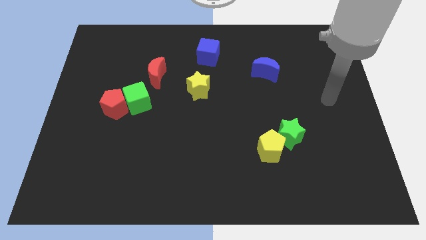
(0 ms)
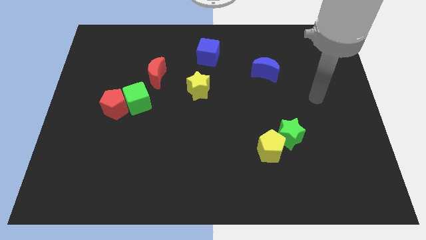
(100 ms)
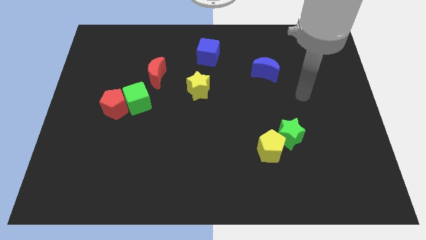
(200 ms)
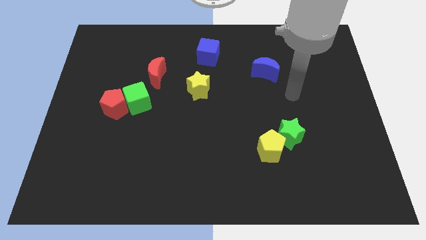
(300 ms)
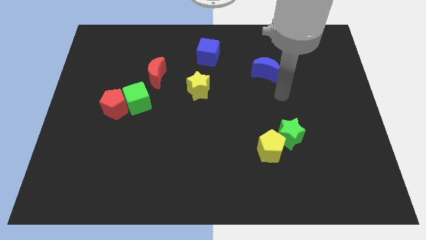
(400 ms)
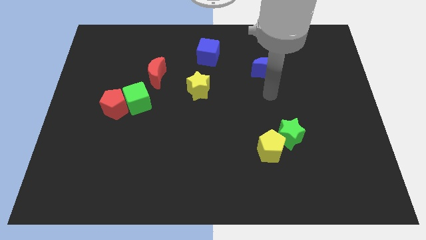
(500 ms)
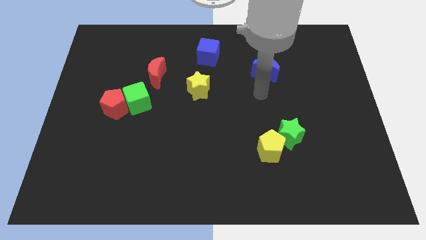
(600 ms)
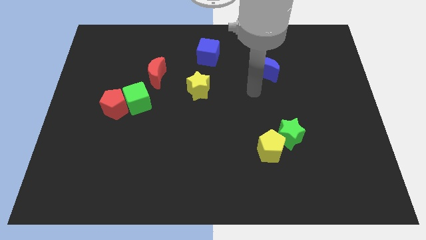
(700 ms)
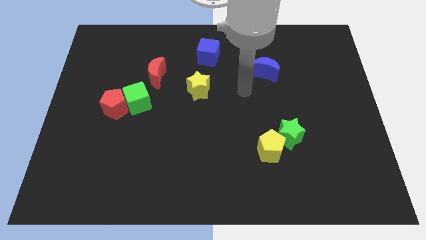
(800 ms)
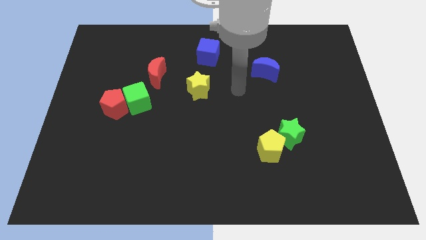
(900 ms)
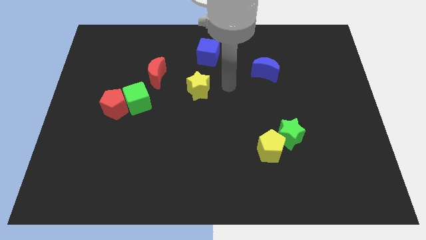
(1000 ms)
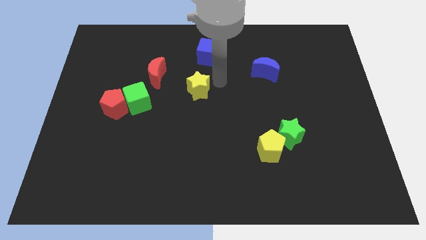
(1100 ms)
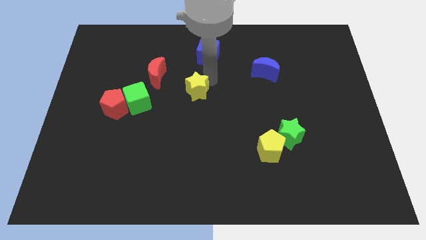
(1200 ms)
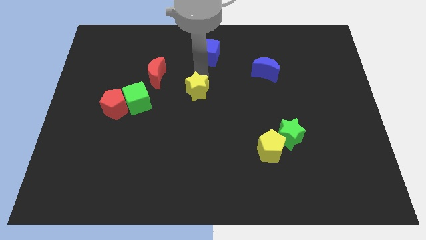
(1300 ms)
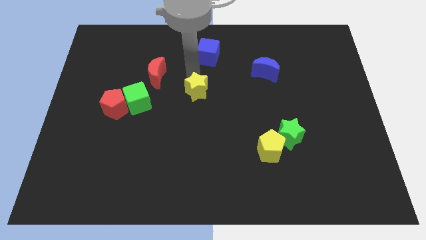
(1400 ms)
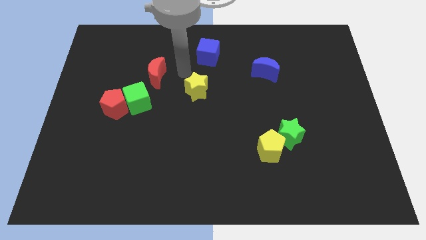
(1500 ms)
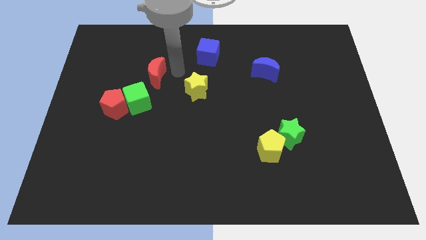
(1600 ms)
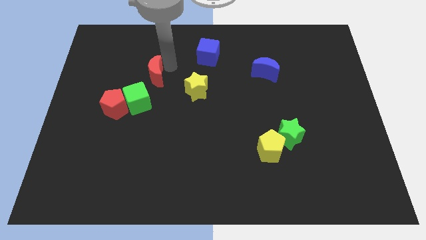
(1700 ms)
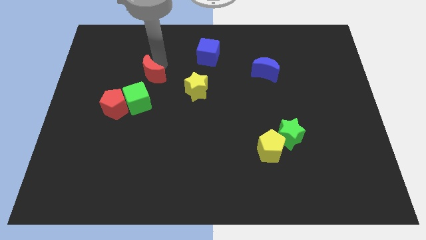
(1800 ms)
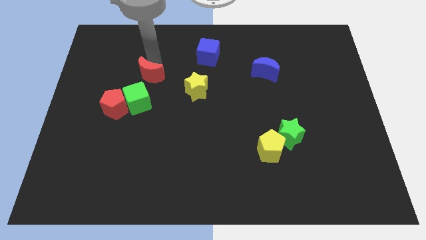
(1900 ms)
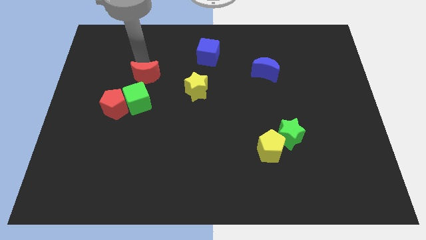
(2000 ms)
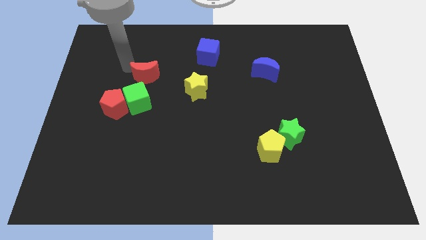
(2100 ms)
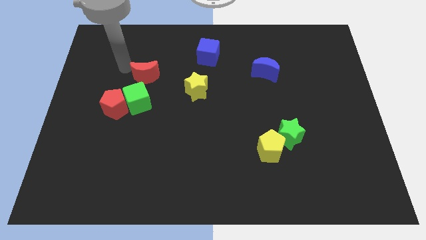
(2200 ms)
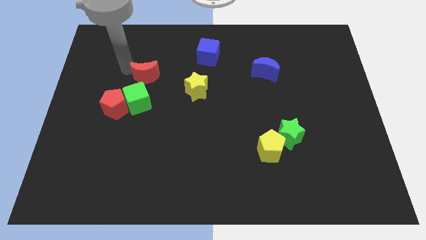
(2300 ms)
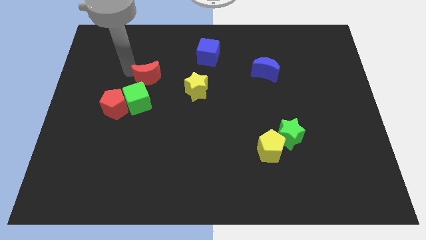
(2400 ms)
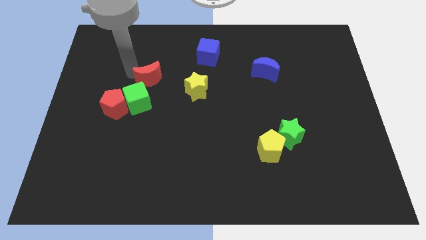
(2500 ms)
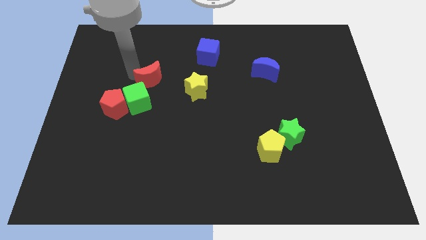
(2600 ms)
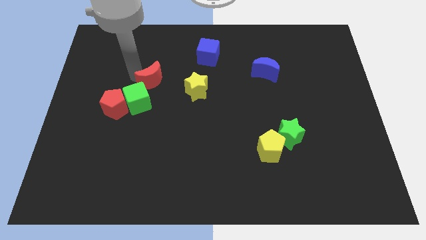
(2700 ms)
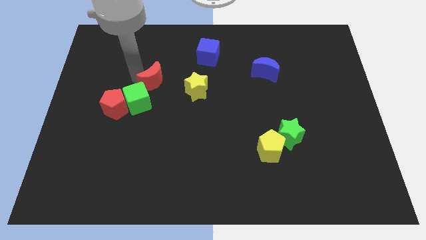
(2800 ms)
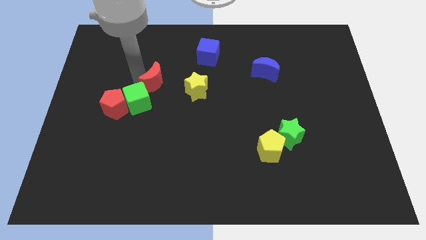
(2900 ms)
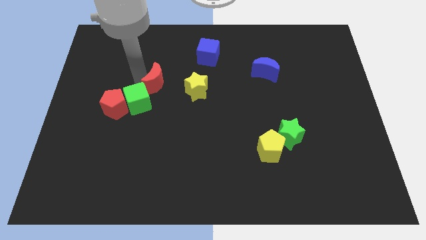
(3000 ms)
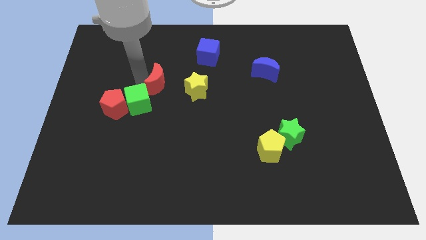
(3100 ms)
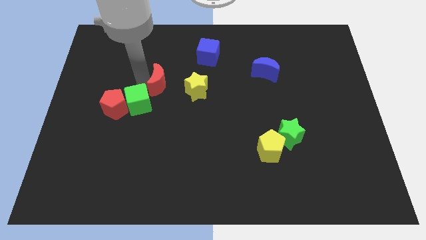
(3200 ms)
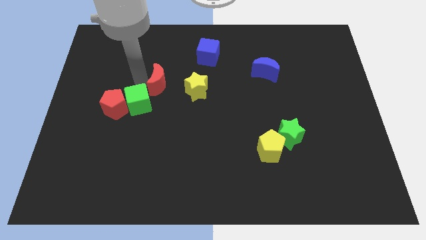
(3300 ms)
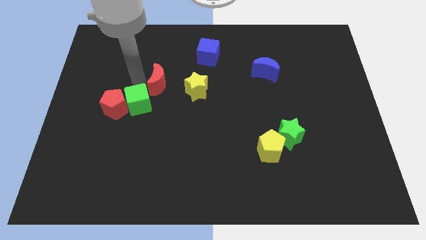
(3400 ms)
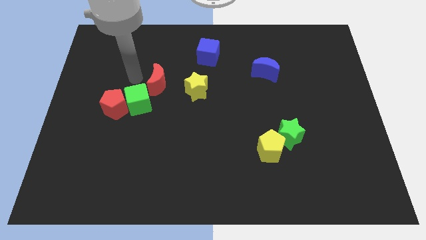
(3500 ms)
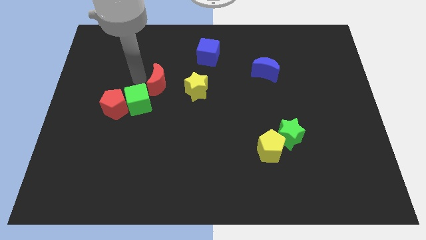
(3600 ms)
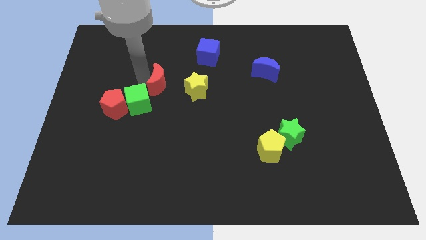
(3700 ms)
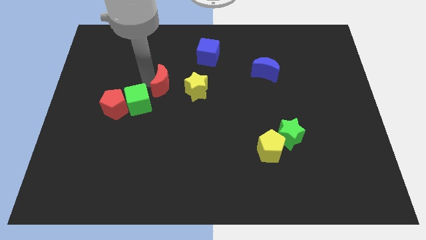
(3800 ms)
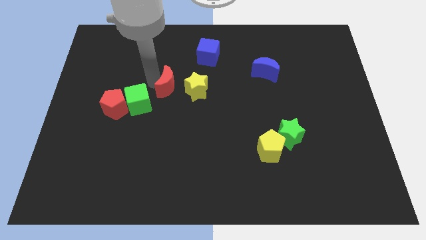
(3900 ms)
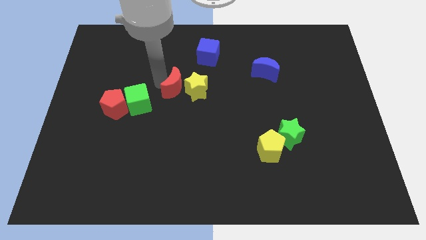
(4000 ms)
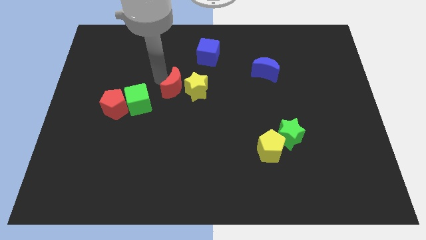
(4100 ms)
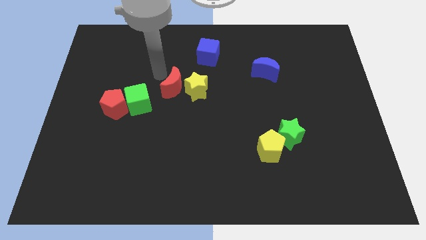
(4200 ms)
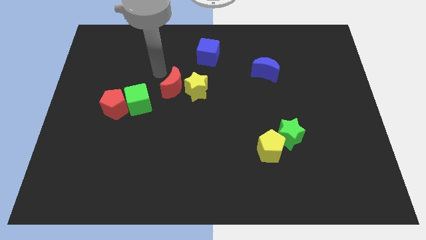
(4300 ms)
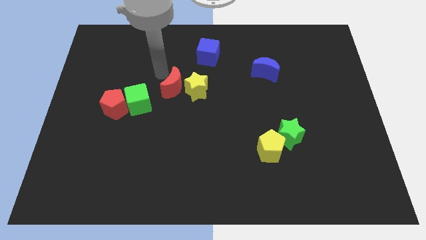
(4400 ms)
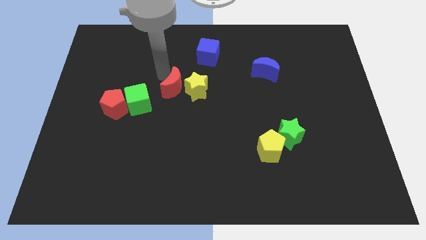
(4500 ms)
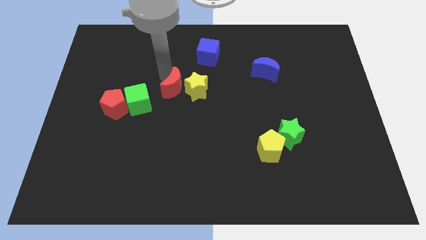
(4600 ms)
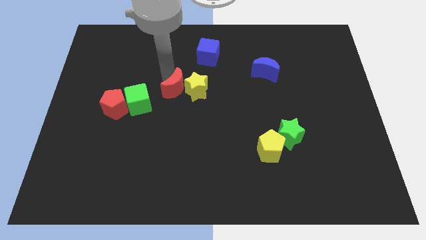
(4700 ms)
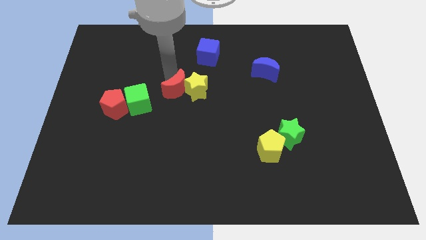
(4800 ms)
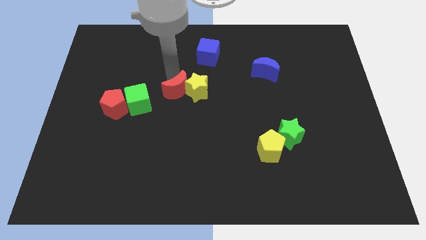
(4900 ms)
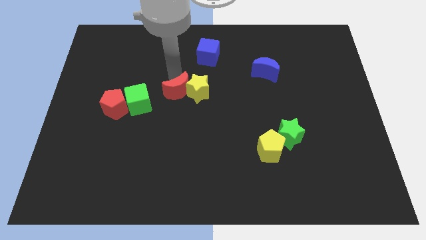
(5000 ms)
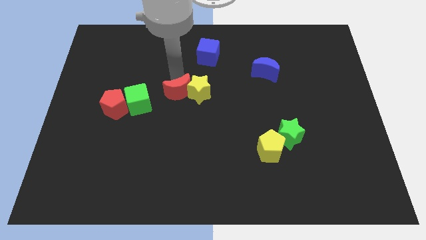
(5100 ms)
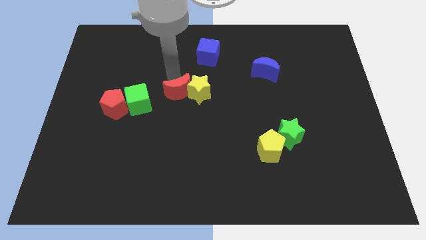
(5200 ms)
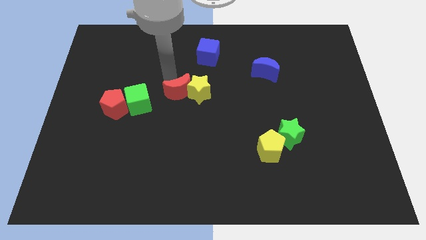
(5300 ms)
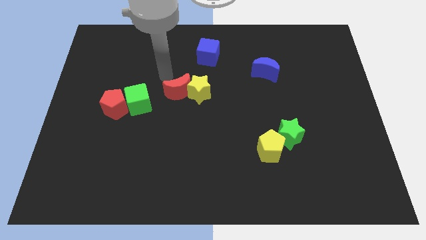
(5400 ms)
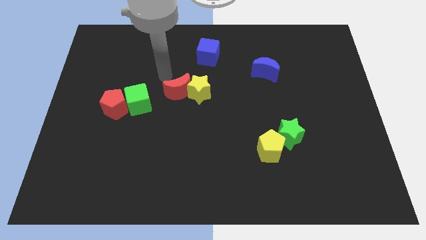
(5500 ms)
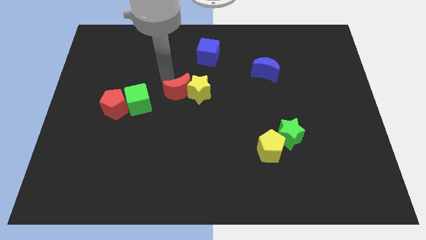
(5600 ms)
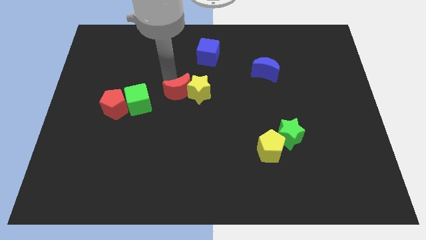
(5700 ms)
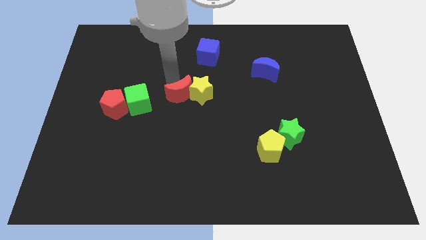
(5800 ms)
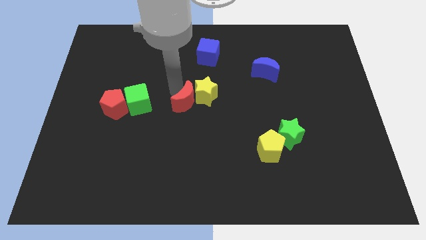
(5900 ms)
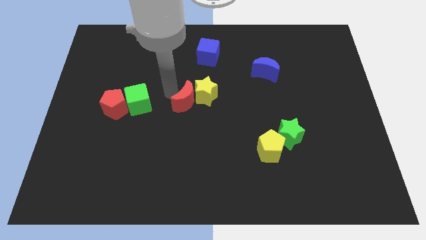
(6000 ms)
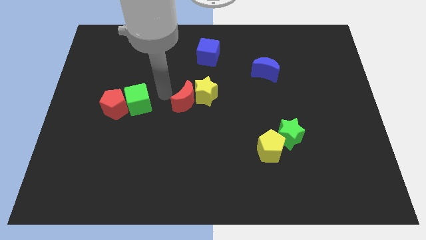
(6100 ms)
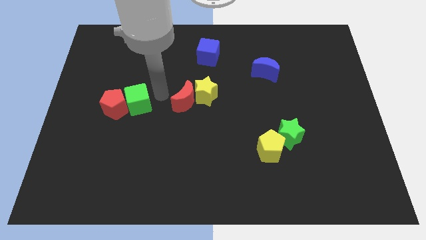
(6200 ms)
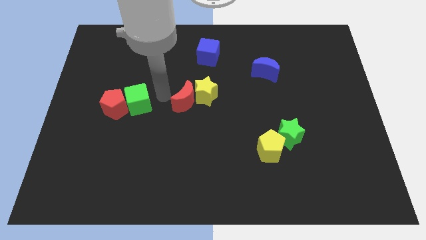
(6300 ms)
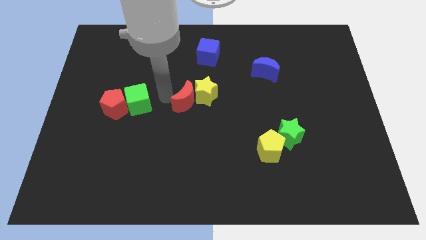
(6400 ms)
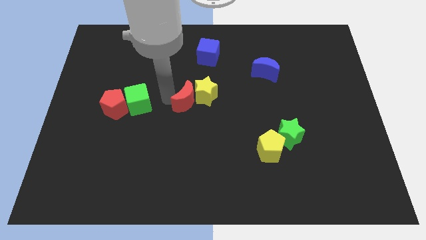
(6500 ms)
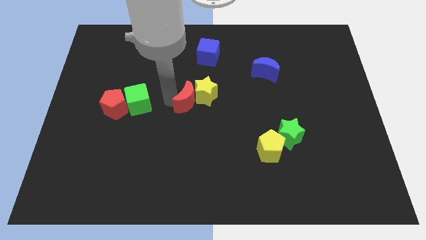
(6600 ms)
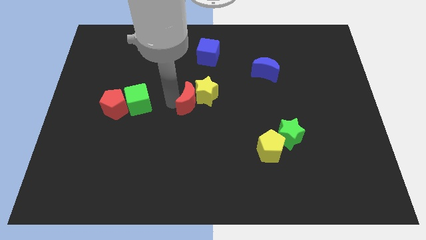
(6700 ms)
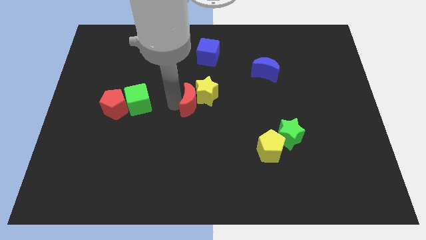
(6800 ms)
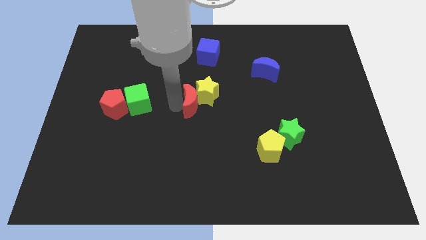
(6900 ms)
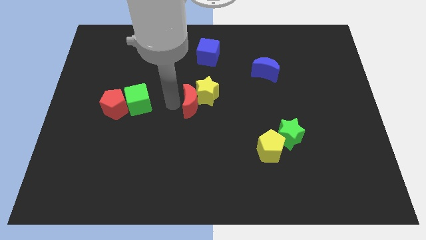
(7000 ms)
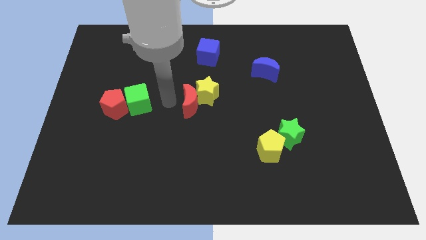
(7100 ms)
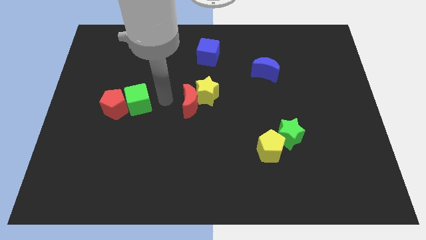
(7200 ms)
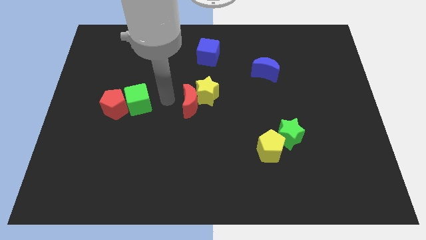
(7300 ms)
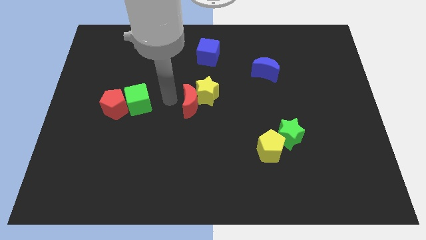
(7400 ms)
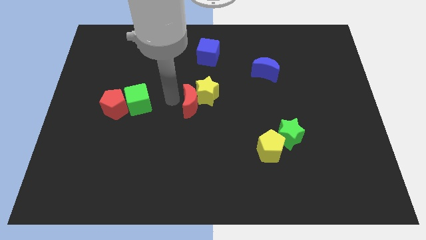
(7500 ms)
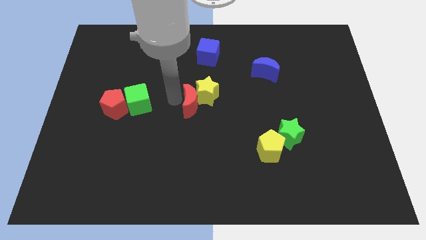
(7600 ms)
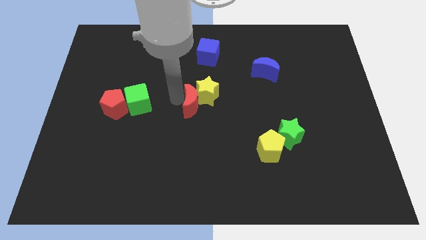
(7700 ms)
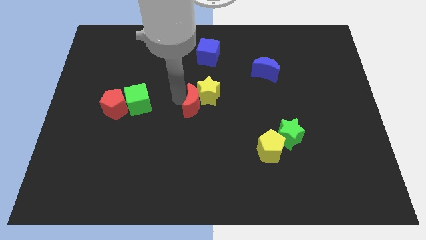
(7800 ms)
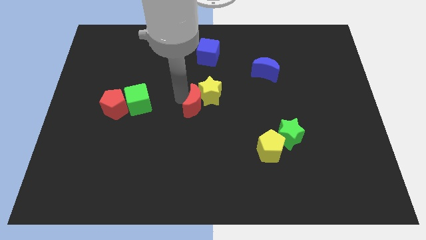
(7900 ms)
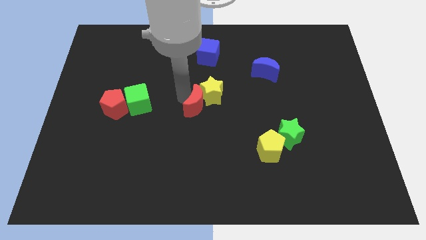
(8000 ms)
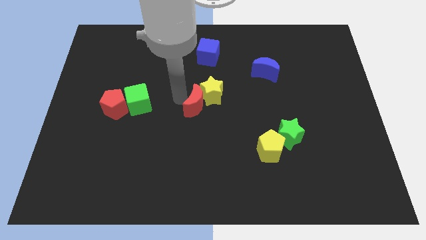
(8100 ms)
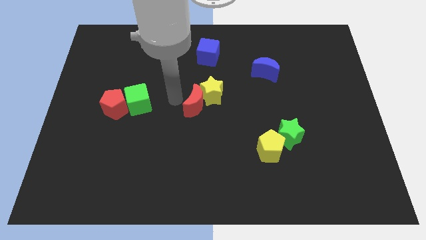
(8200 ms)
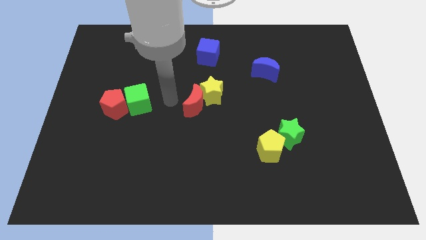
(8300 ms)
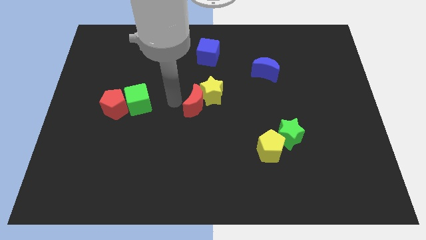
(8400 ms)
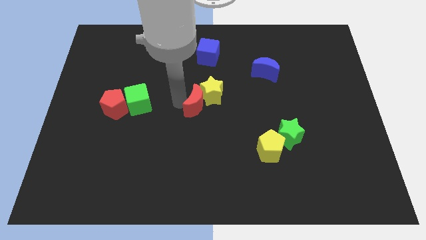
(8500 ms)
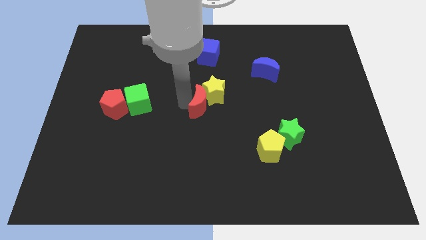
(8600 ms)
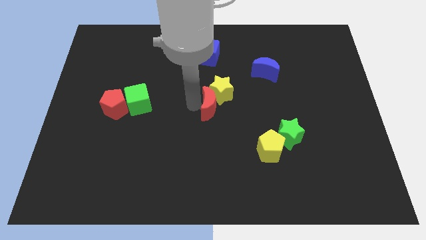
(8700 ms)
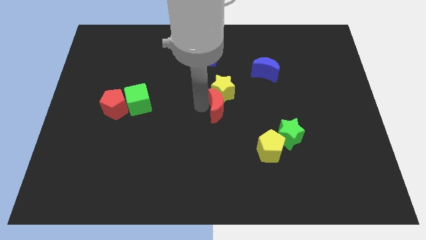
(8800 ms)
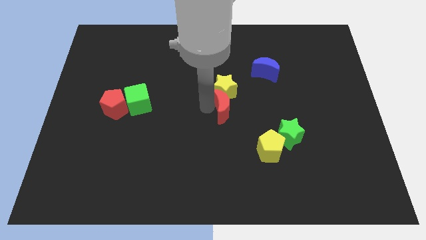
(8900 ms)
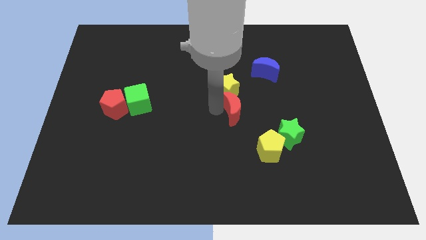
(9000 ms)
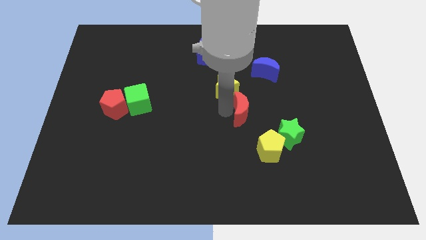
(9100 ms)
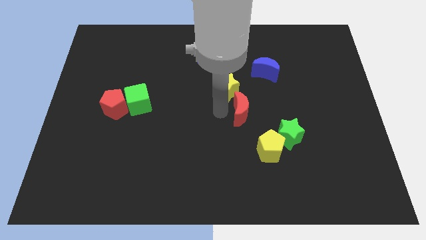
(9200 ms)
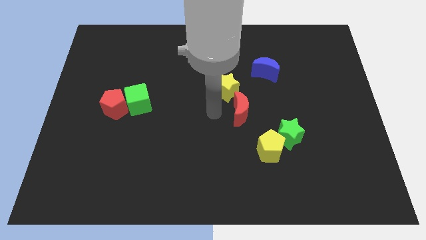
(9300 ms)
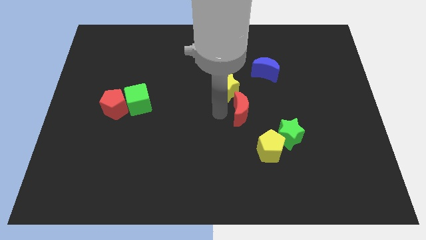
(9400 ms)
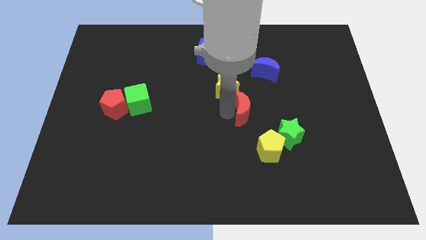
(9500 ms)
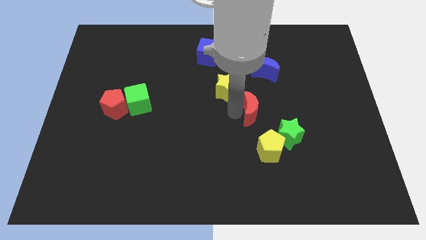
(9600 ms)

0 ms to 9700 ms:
move the red moon above the yellow pentagon
